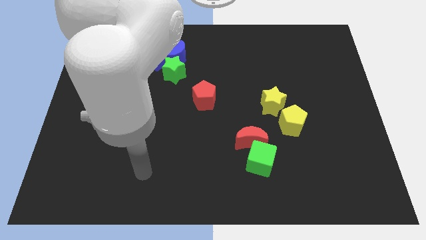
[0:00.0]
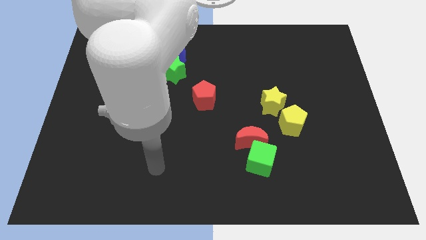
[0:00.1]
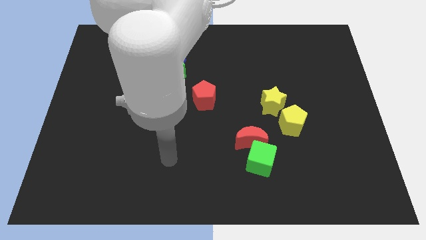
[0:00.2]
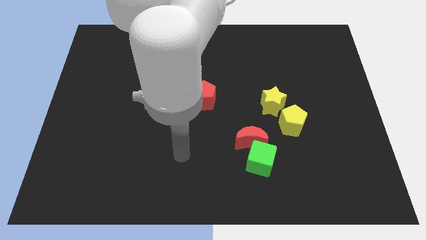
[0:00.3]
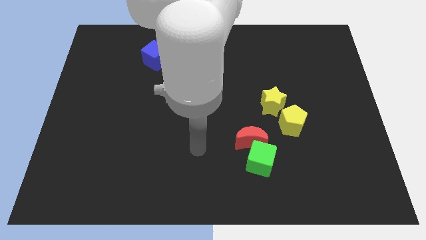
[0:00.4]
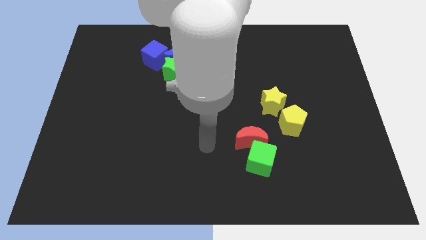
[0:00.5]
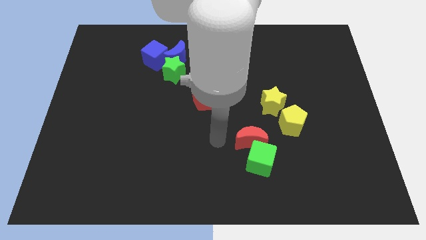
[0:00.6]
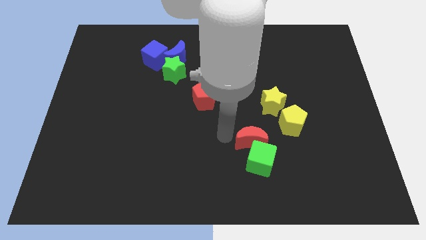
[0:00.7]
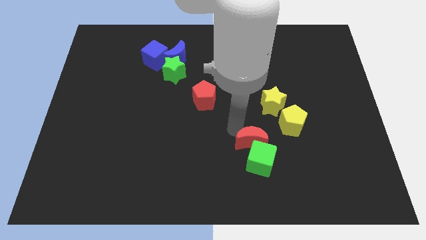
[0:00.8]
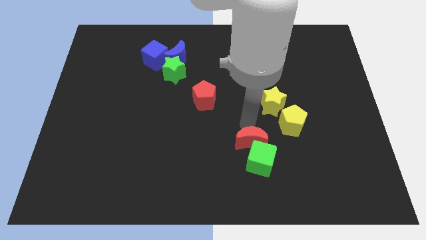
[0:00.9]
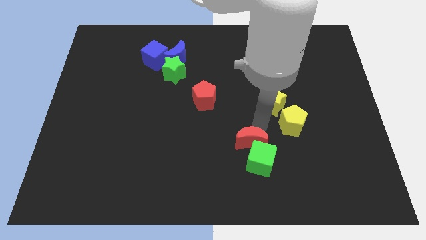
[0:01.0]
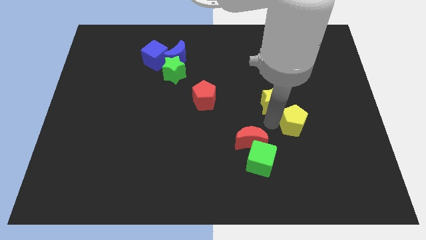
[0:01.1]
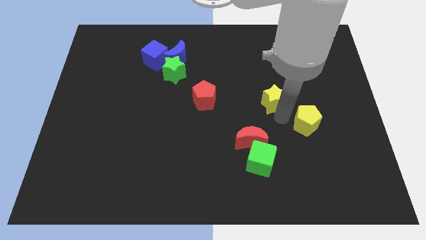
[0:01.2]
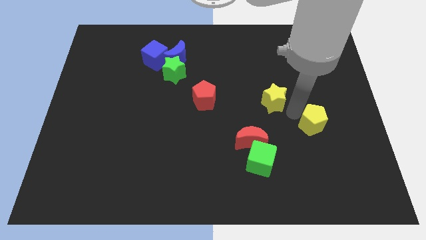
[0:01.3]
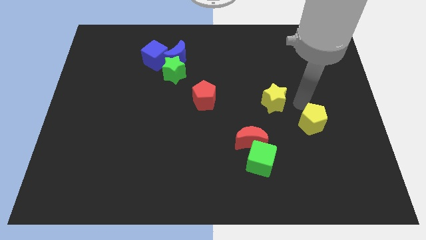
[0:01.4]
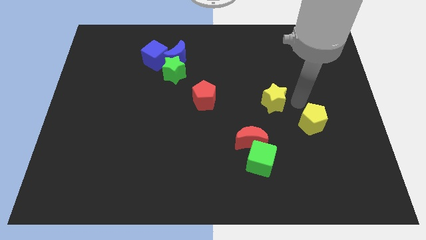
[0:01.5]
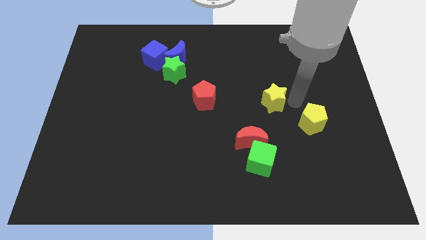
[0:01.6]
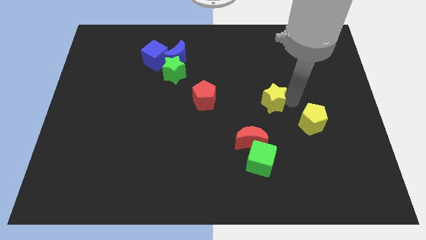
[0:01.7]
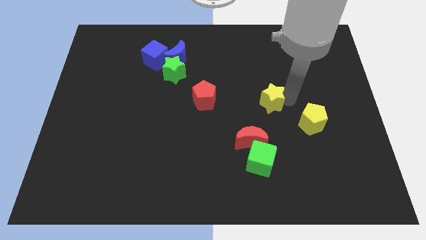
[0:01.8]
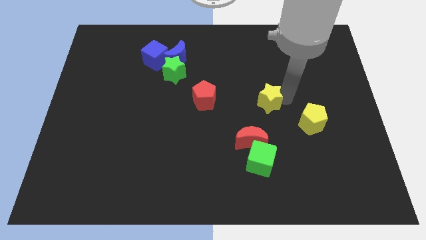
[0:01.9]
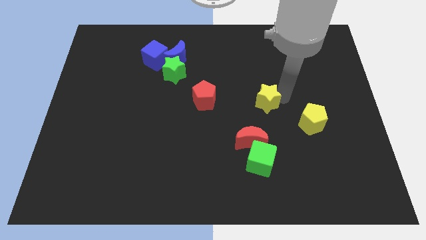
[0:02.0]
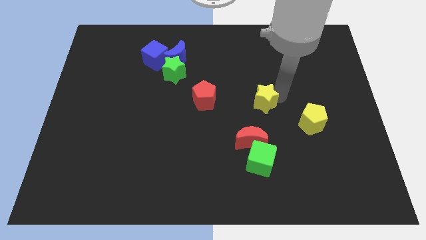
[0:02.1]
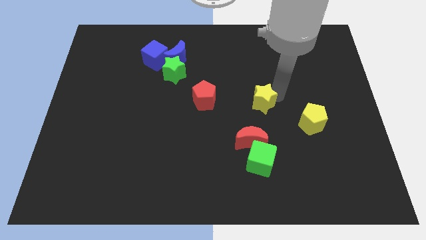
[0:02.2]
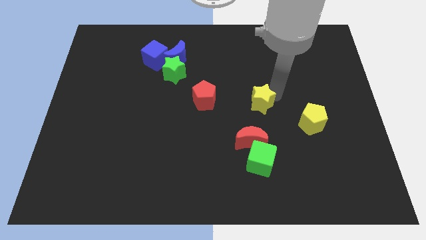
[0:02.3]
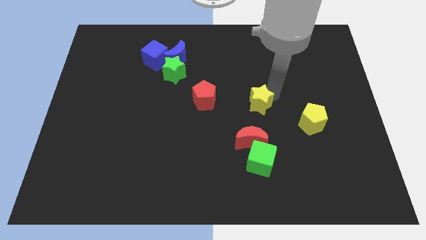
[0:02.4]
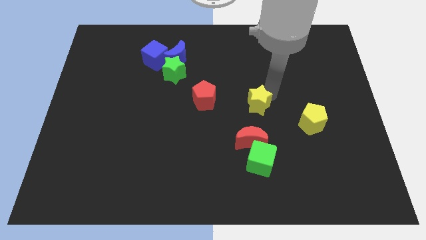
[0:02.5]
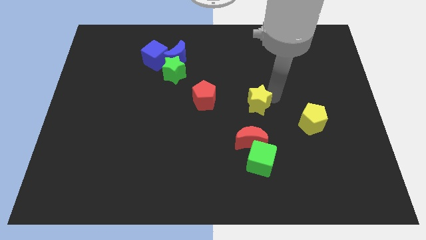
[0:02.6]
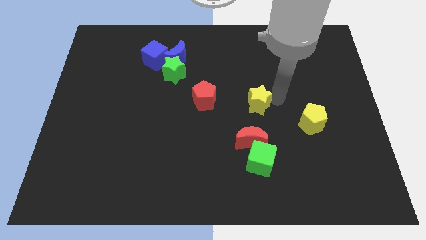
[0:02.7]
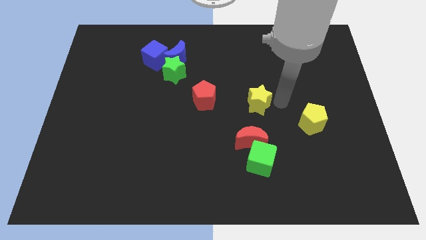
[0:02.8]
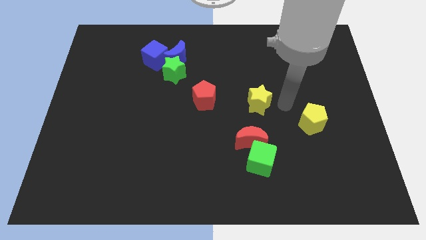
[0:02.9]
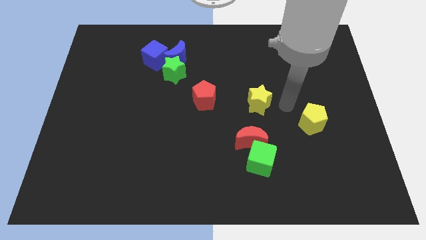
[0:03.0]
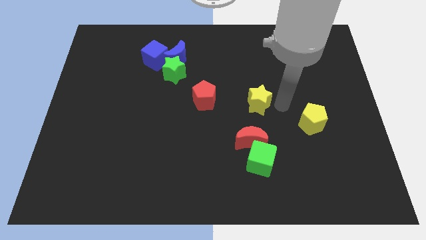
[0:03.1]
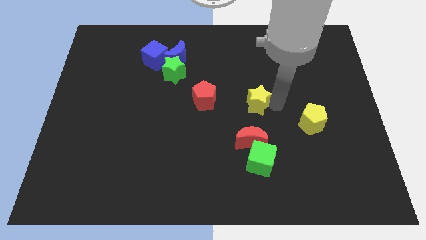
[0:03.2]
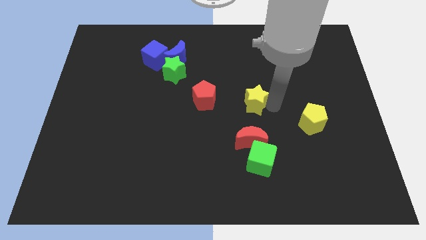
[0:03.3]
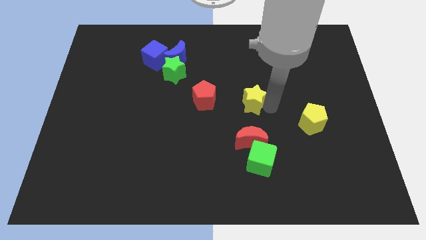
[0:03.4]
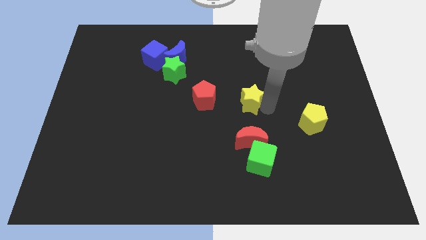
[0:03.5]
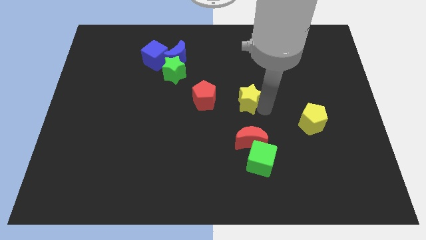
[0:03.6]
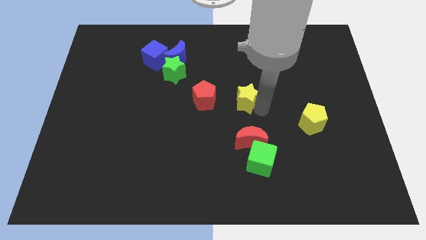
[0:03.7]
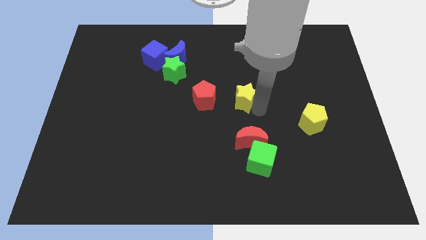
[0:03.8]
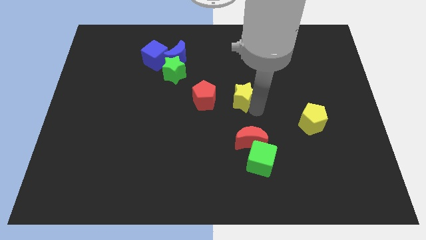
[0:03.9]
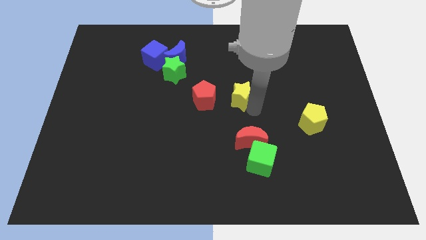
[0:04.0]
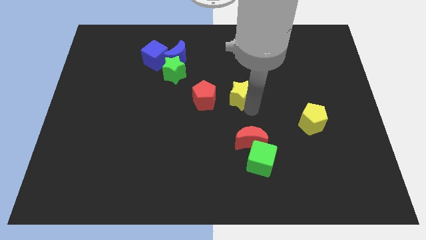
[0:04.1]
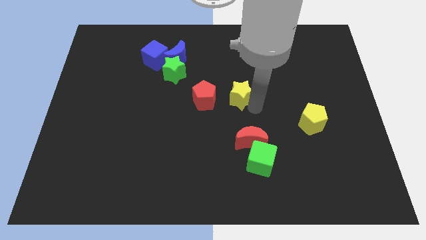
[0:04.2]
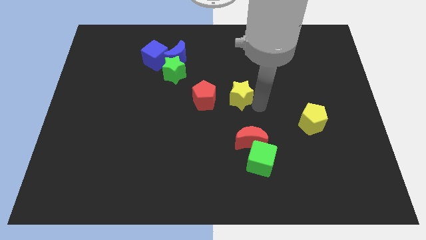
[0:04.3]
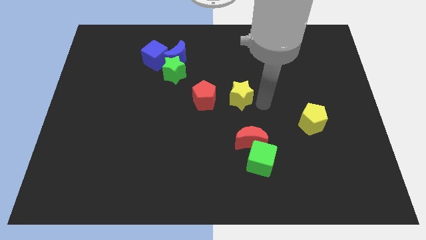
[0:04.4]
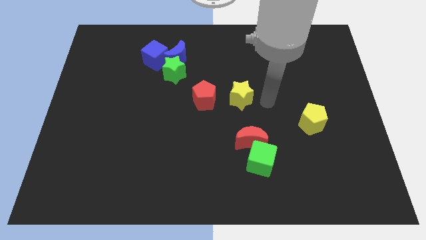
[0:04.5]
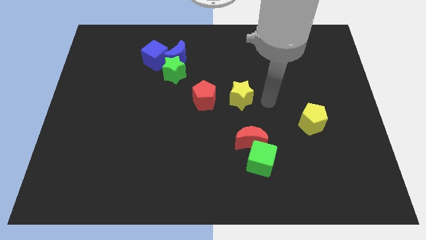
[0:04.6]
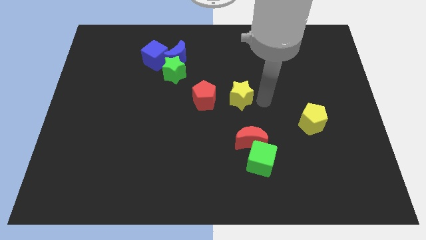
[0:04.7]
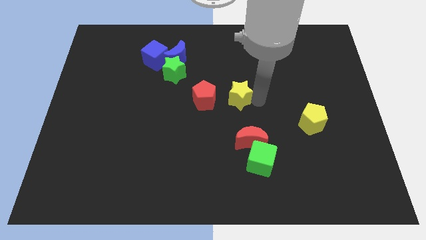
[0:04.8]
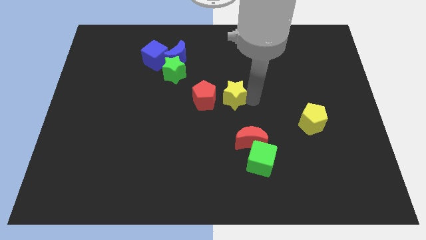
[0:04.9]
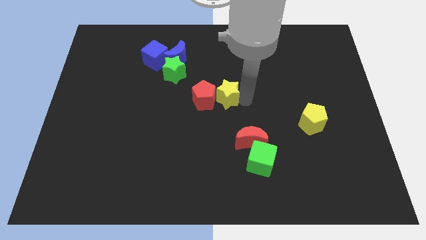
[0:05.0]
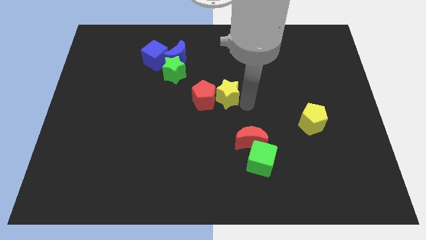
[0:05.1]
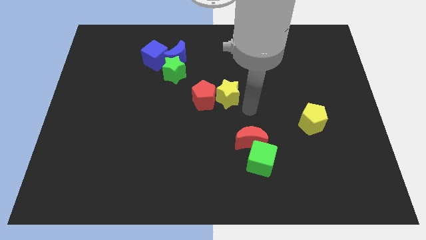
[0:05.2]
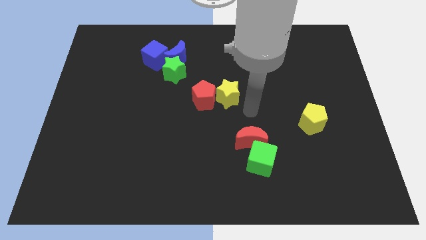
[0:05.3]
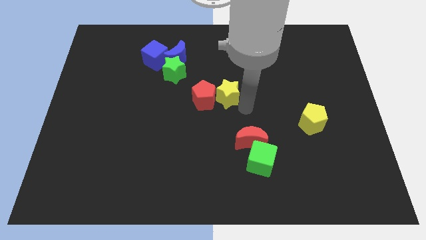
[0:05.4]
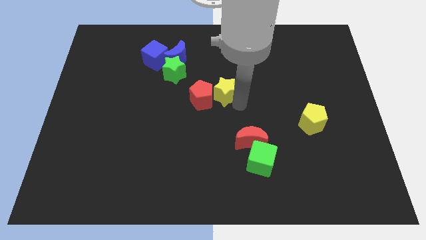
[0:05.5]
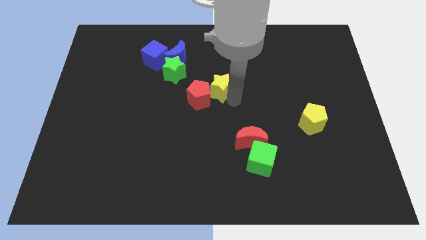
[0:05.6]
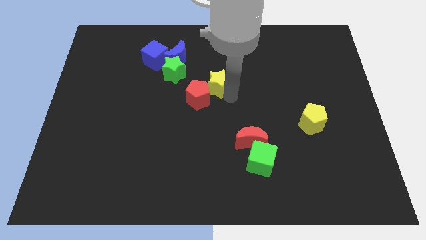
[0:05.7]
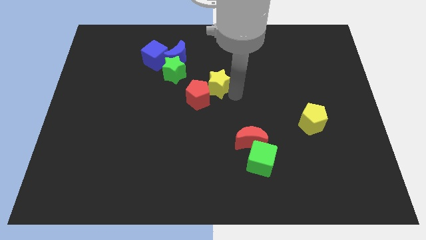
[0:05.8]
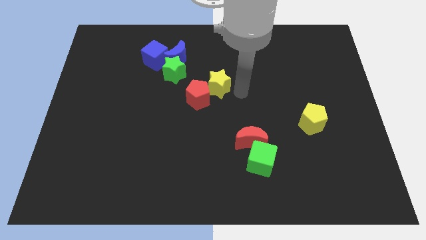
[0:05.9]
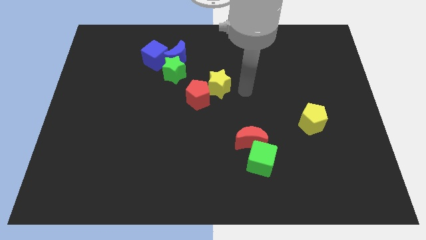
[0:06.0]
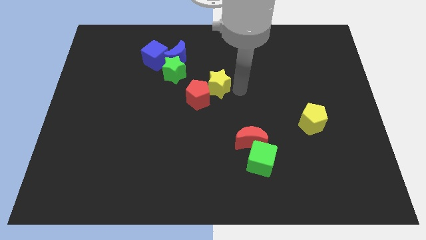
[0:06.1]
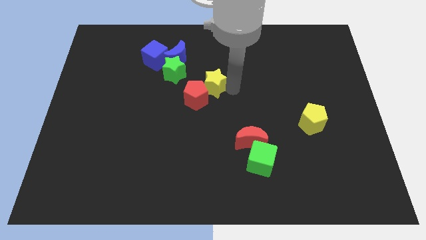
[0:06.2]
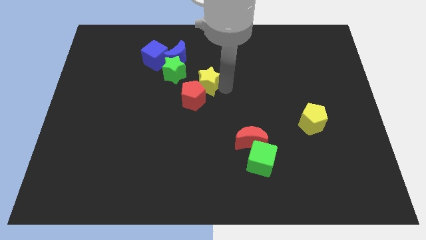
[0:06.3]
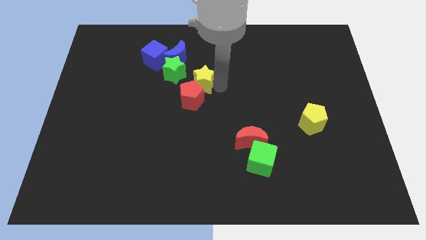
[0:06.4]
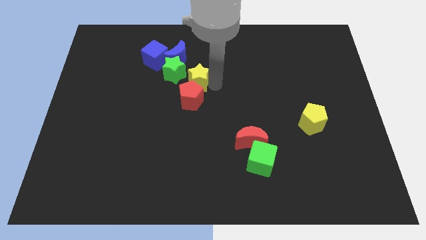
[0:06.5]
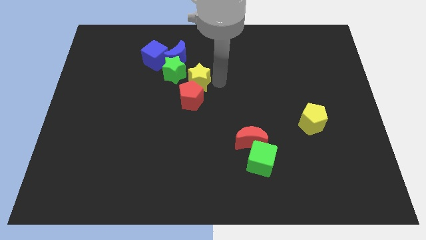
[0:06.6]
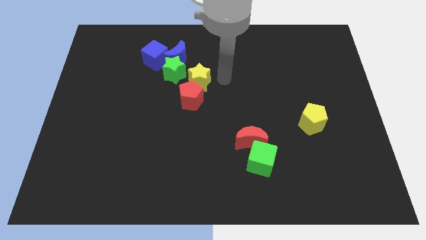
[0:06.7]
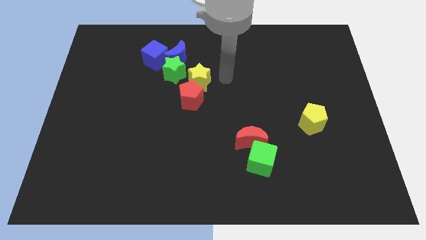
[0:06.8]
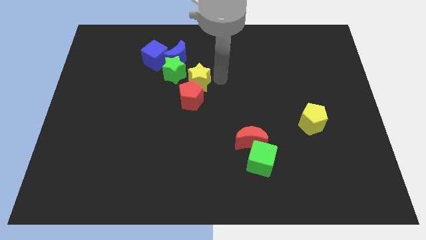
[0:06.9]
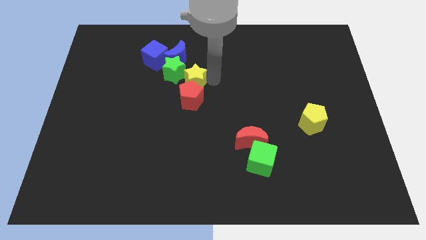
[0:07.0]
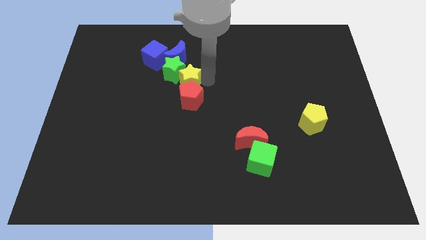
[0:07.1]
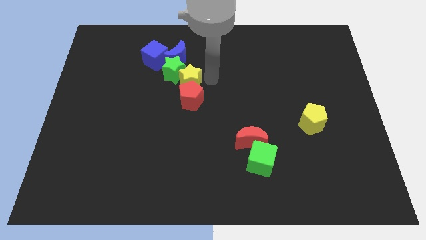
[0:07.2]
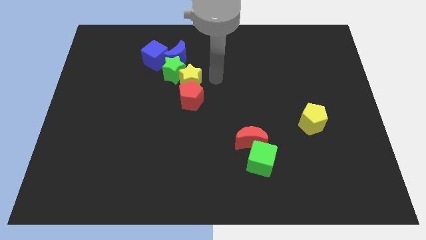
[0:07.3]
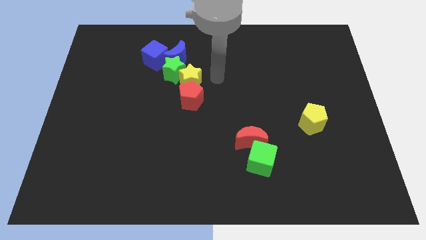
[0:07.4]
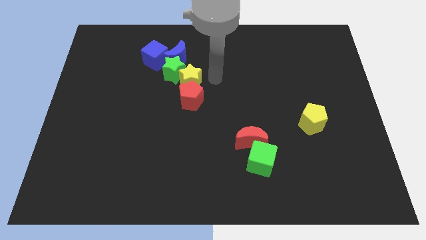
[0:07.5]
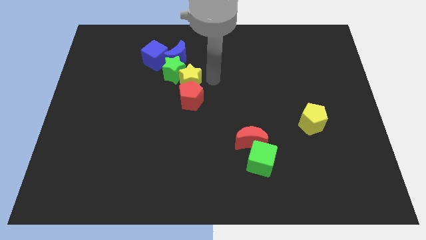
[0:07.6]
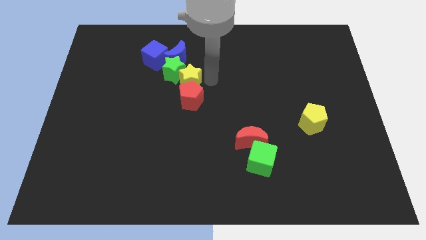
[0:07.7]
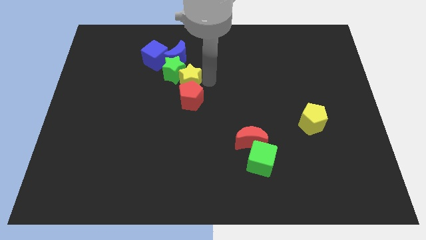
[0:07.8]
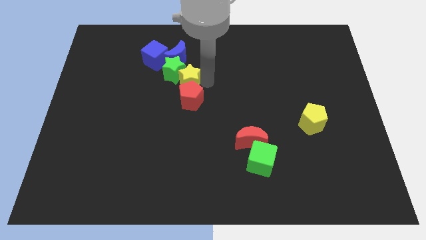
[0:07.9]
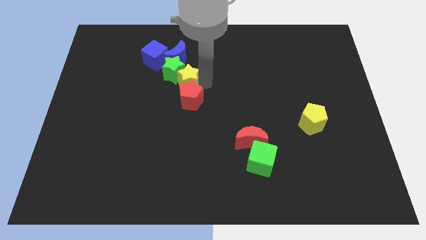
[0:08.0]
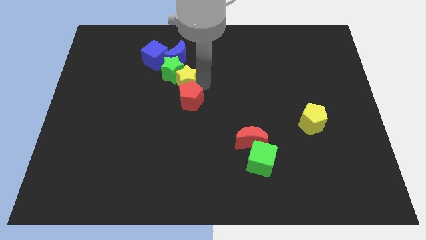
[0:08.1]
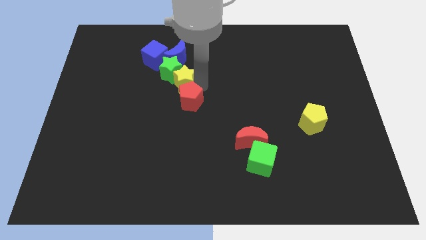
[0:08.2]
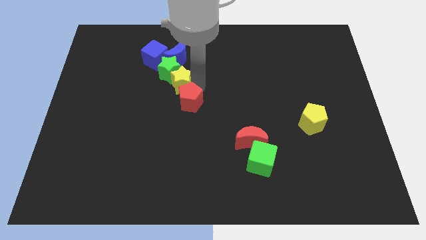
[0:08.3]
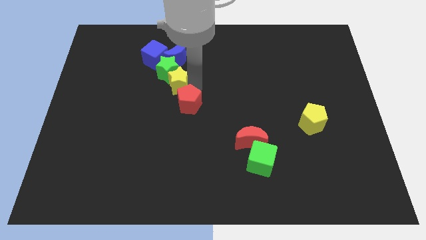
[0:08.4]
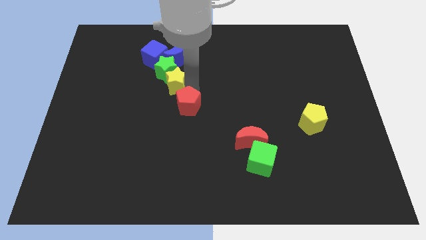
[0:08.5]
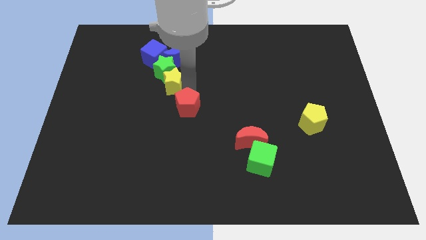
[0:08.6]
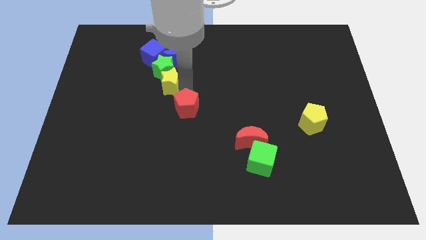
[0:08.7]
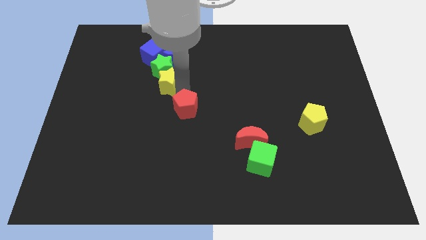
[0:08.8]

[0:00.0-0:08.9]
move the yellow star to the bottom of the blue cube
